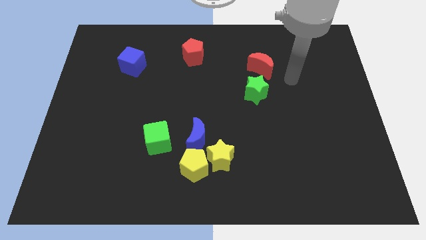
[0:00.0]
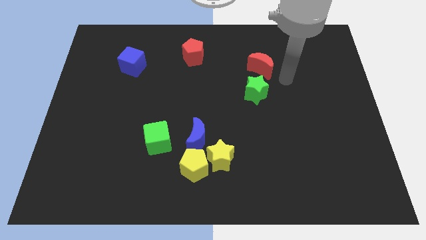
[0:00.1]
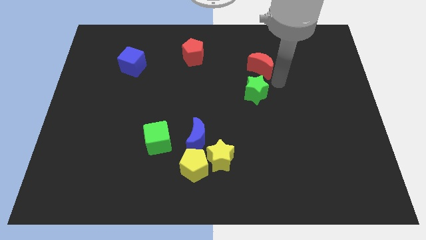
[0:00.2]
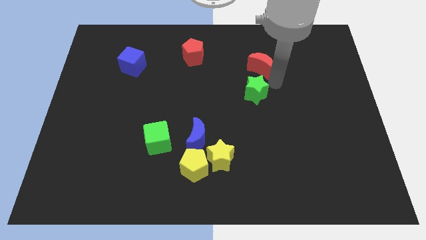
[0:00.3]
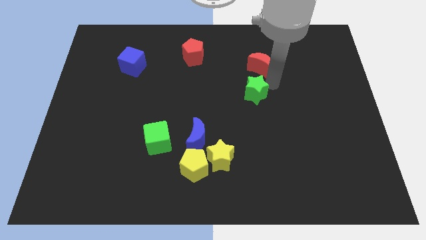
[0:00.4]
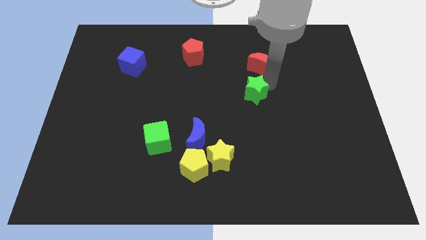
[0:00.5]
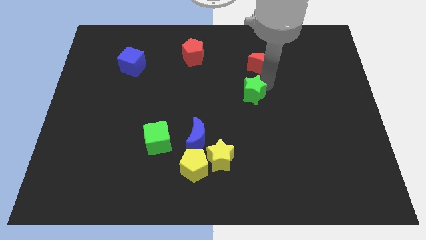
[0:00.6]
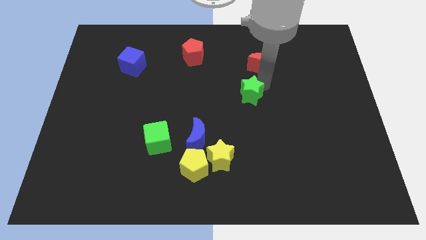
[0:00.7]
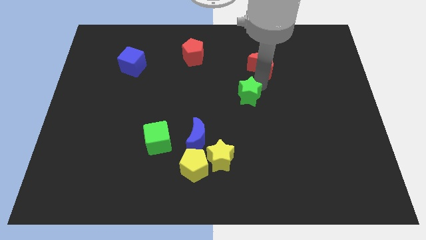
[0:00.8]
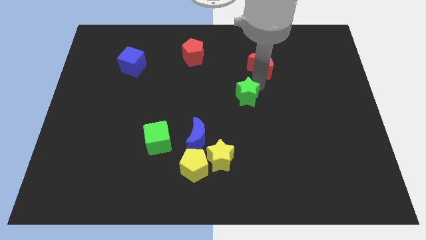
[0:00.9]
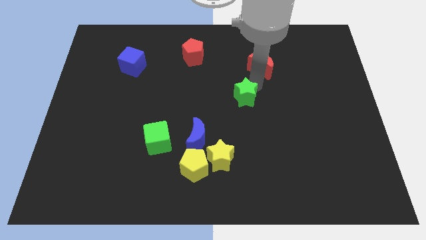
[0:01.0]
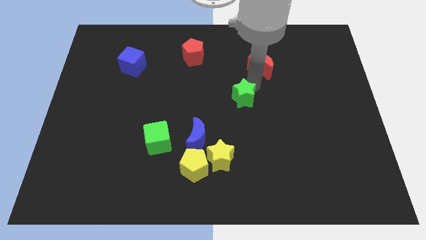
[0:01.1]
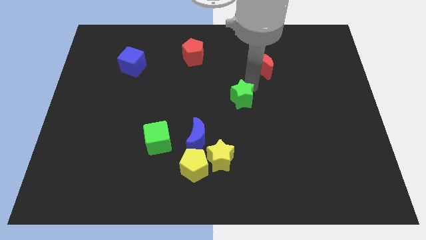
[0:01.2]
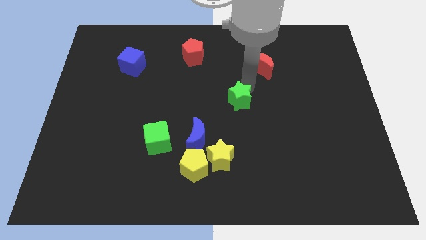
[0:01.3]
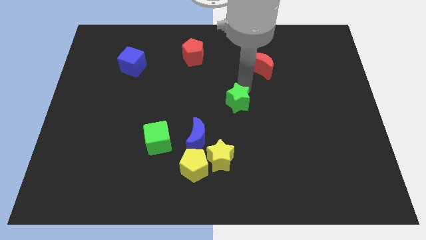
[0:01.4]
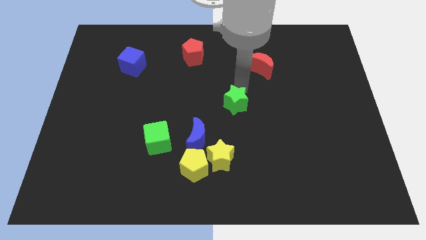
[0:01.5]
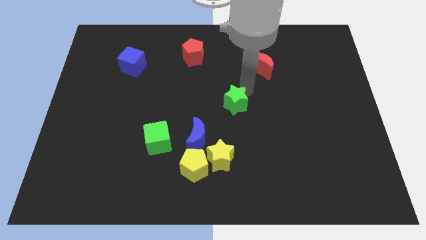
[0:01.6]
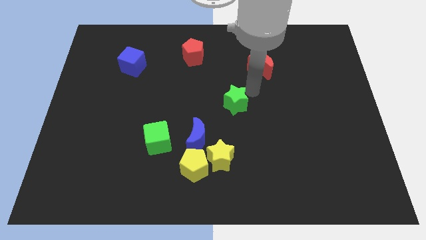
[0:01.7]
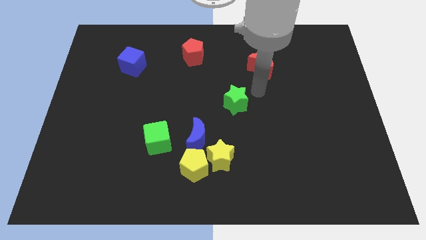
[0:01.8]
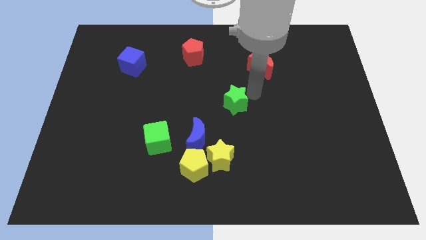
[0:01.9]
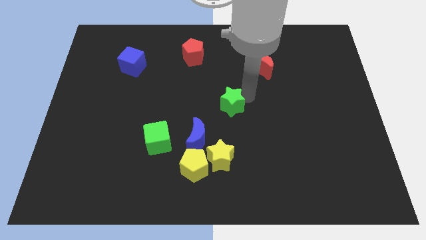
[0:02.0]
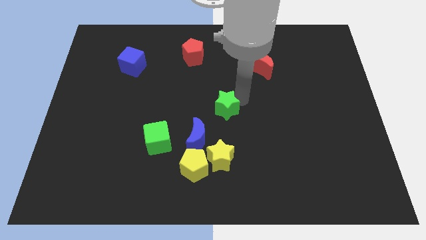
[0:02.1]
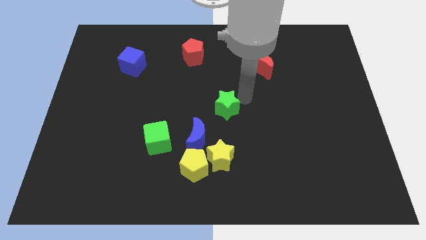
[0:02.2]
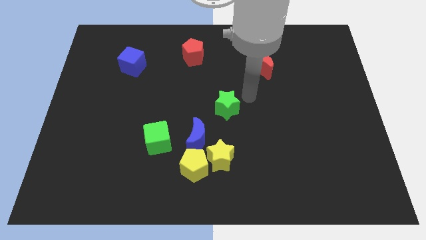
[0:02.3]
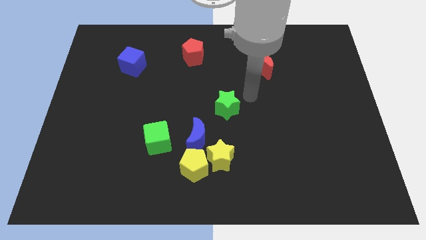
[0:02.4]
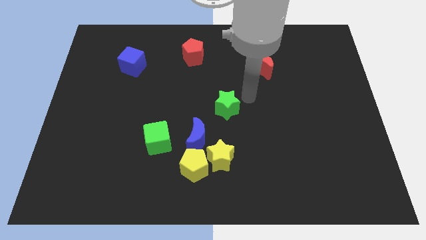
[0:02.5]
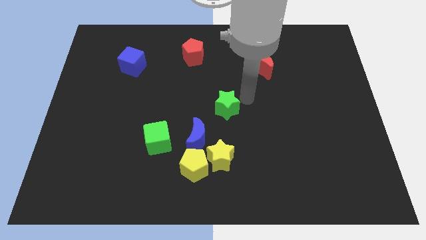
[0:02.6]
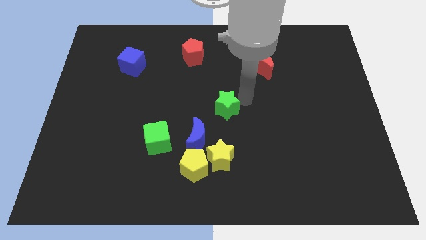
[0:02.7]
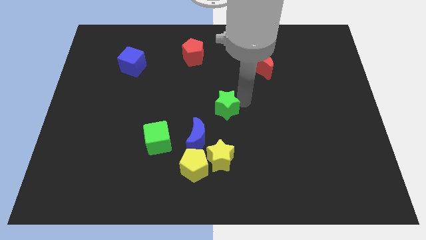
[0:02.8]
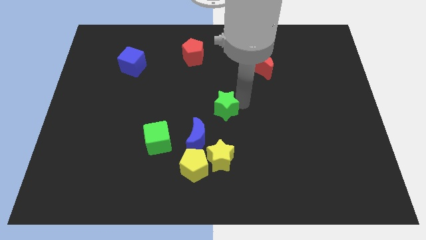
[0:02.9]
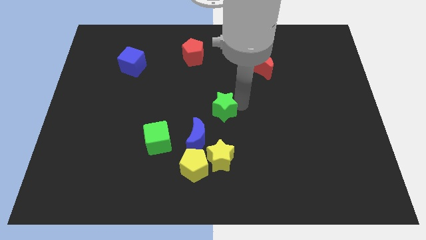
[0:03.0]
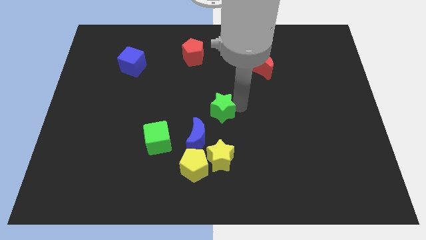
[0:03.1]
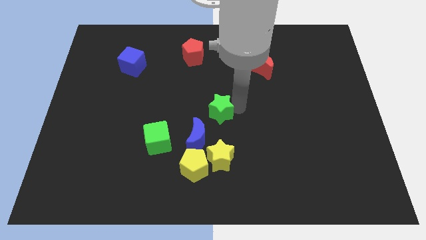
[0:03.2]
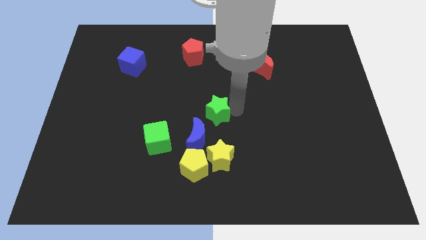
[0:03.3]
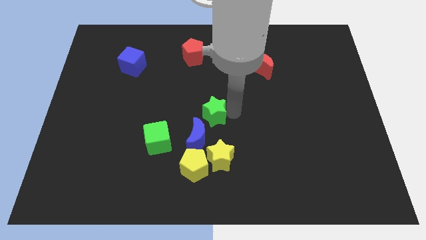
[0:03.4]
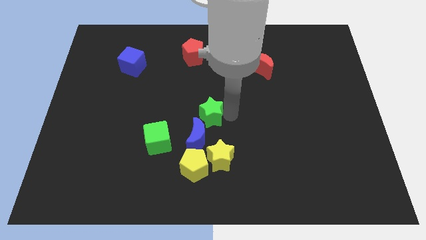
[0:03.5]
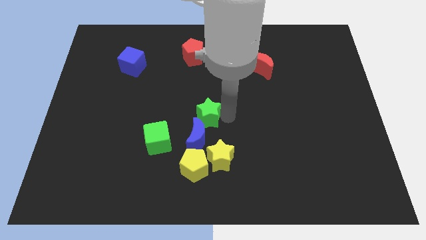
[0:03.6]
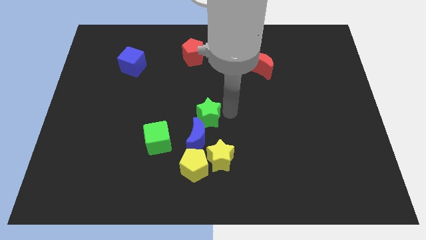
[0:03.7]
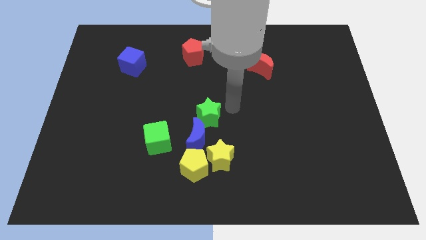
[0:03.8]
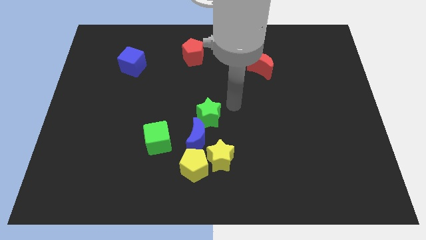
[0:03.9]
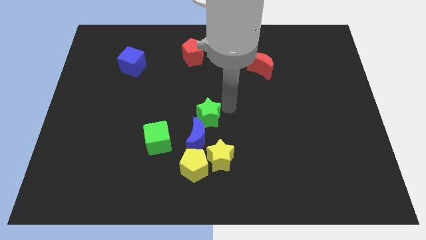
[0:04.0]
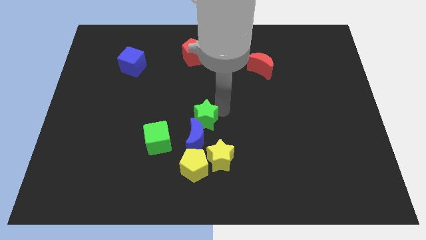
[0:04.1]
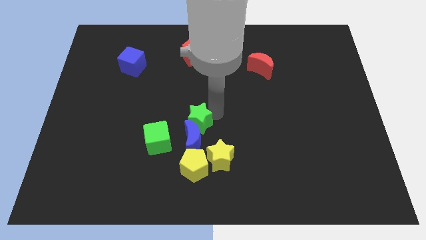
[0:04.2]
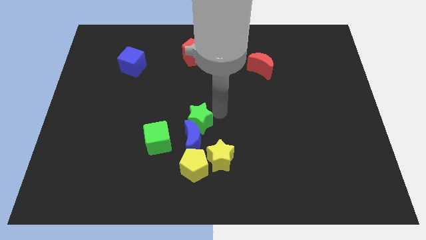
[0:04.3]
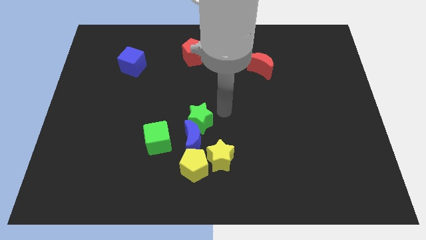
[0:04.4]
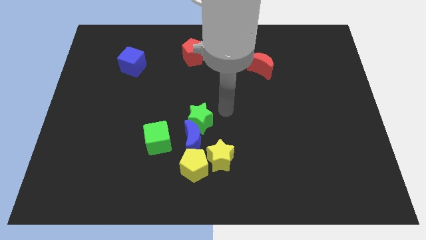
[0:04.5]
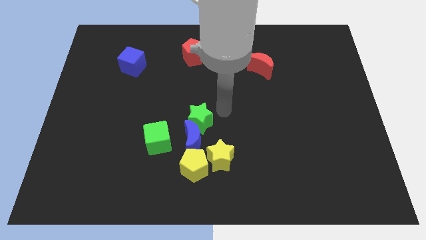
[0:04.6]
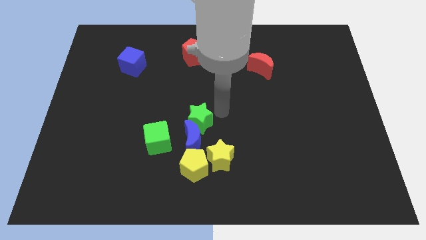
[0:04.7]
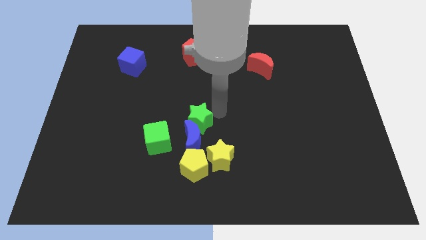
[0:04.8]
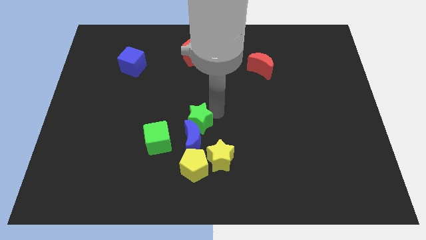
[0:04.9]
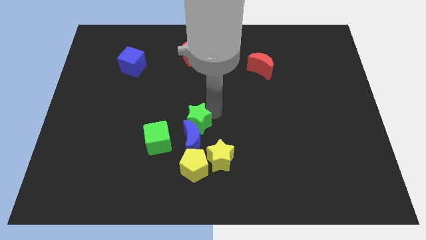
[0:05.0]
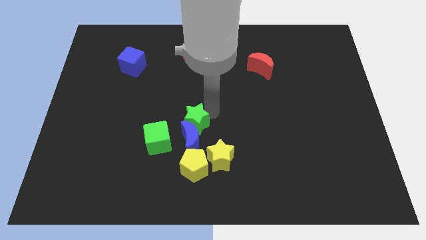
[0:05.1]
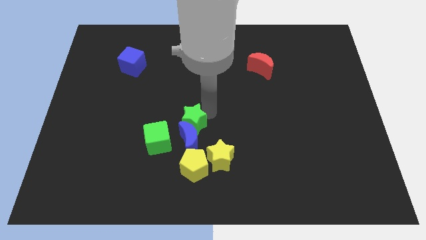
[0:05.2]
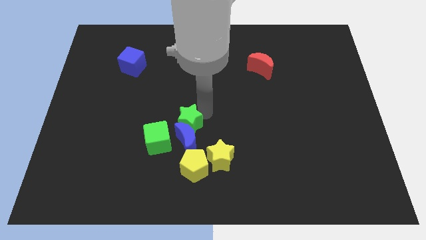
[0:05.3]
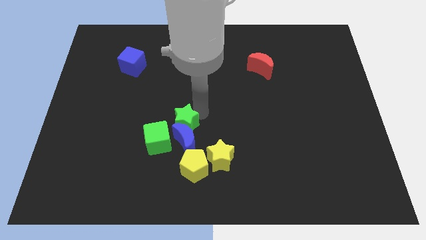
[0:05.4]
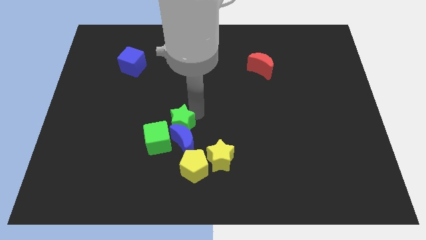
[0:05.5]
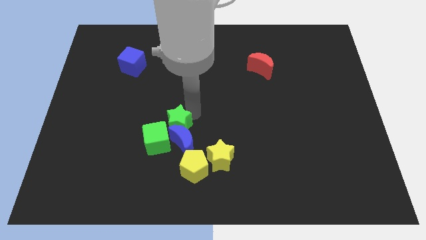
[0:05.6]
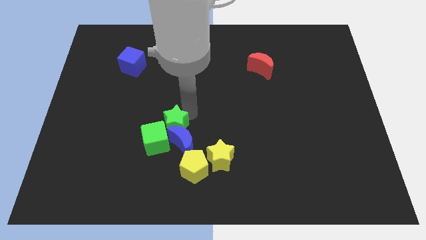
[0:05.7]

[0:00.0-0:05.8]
slide the green star close to the green cube

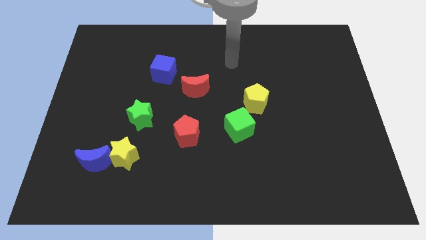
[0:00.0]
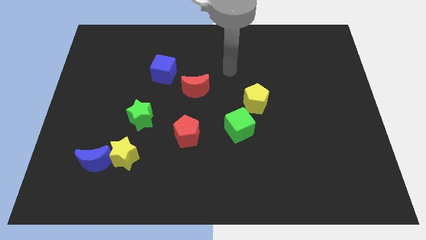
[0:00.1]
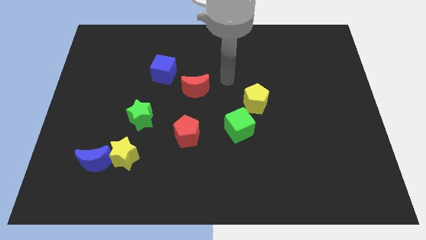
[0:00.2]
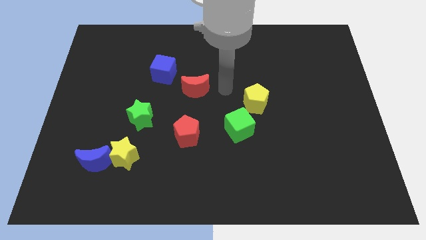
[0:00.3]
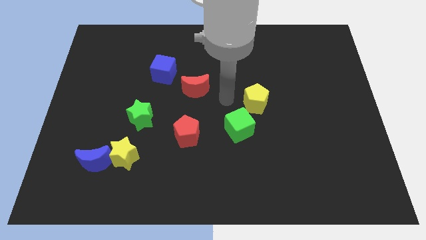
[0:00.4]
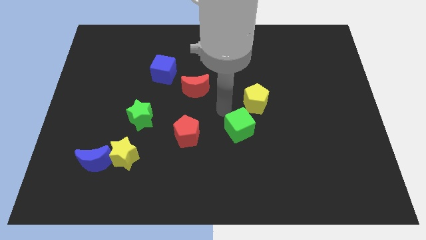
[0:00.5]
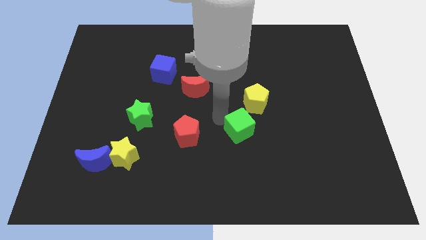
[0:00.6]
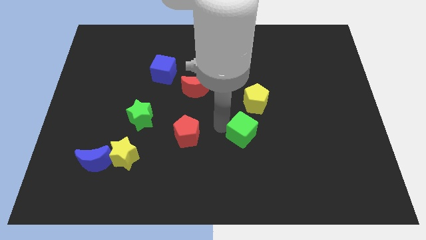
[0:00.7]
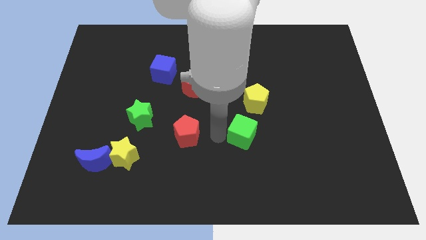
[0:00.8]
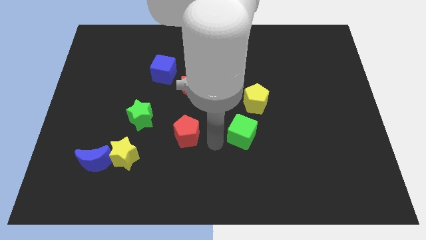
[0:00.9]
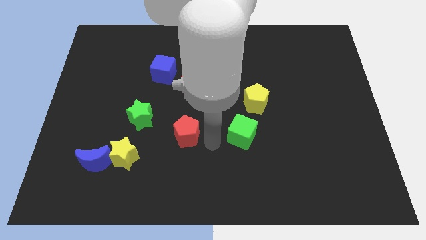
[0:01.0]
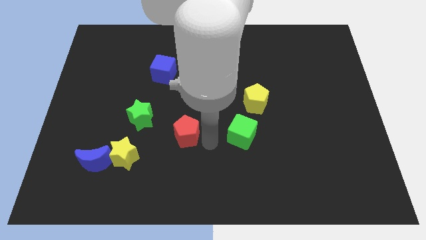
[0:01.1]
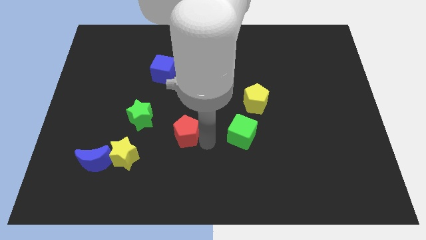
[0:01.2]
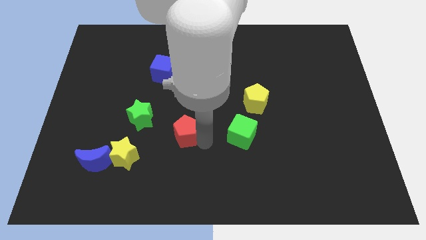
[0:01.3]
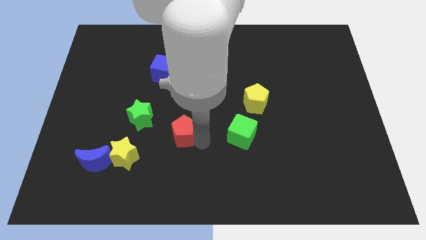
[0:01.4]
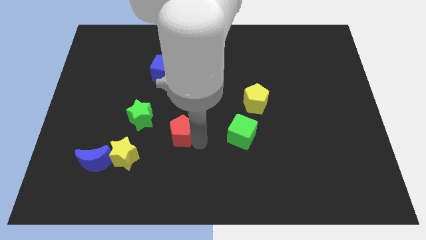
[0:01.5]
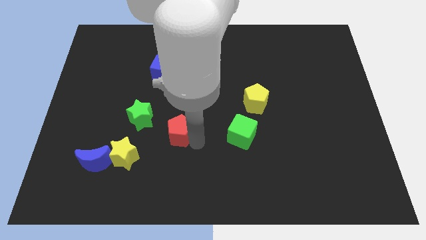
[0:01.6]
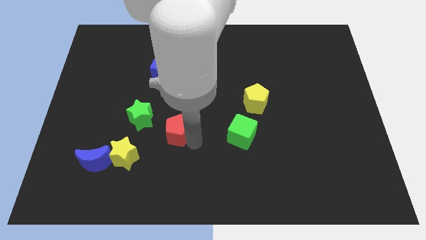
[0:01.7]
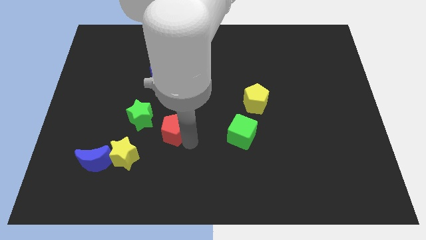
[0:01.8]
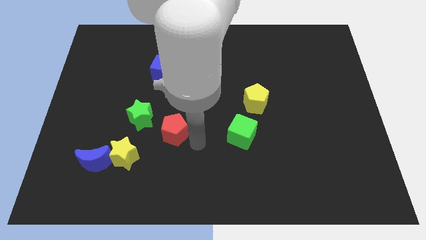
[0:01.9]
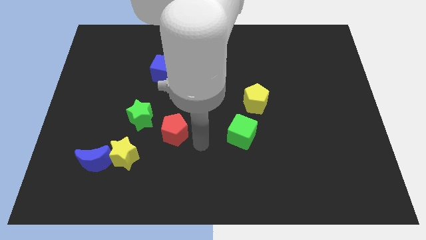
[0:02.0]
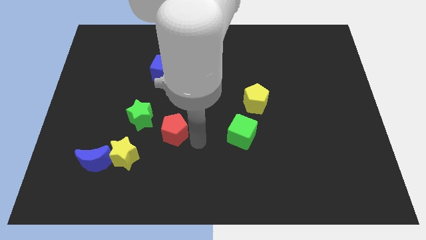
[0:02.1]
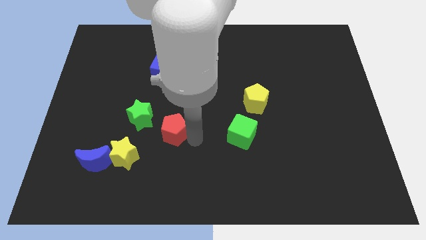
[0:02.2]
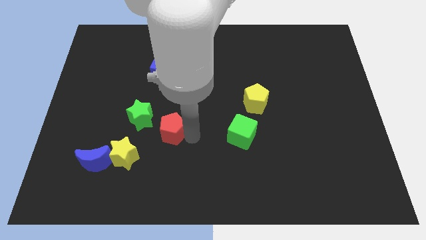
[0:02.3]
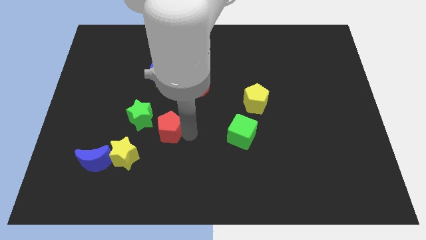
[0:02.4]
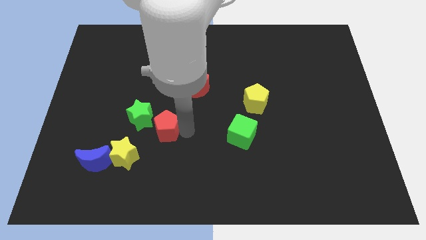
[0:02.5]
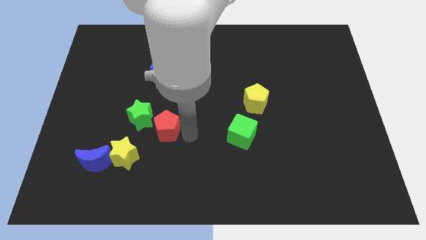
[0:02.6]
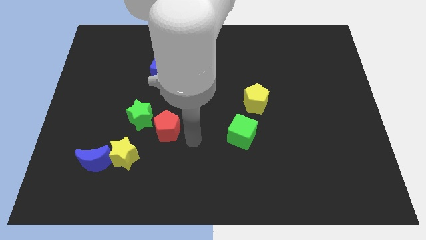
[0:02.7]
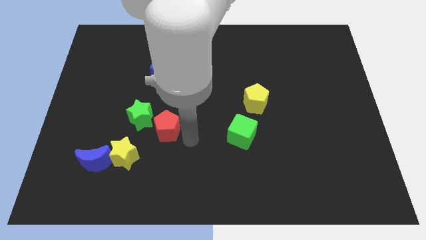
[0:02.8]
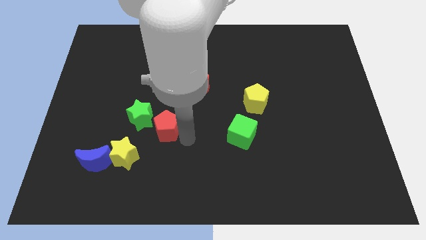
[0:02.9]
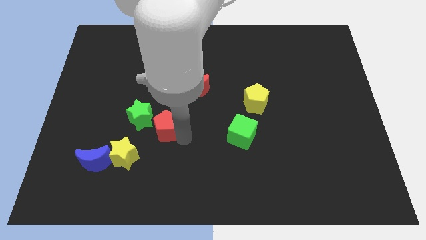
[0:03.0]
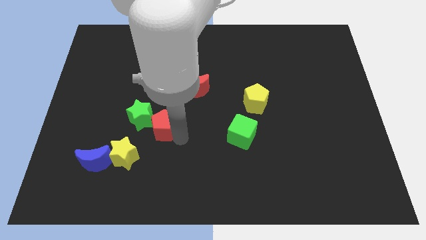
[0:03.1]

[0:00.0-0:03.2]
slide the red pentagon next to the green star

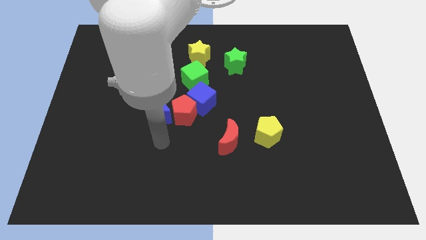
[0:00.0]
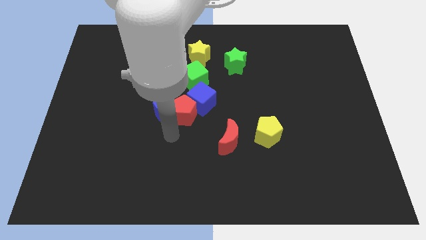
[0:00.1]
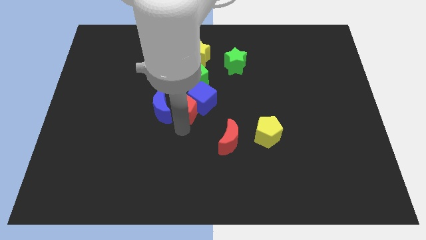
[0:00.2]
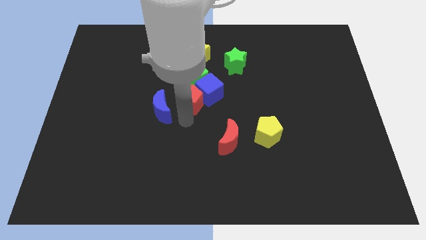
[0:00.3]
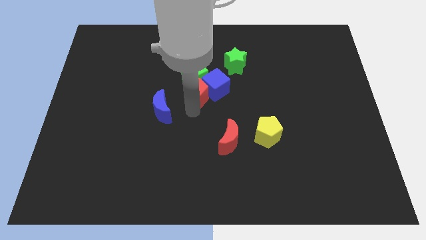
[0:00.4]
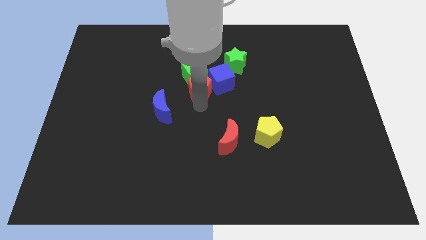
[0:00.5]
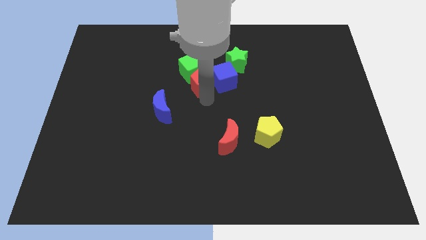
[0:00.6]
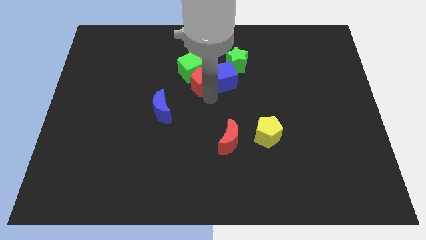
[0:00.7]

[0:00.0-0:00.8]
push the blue cube to the green star
